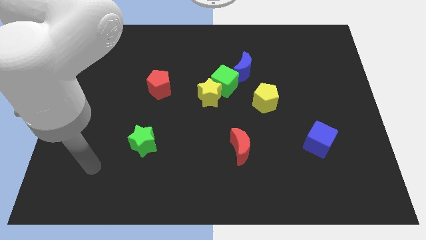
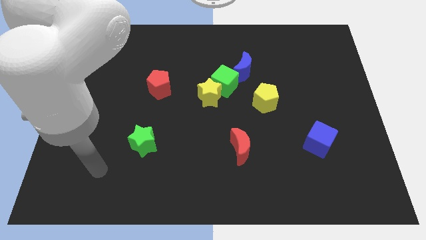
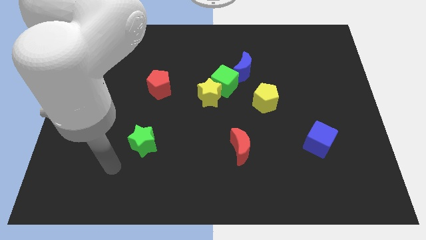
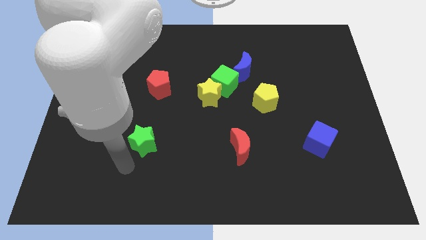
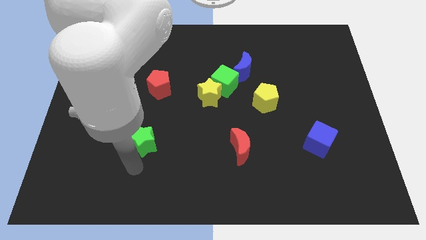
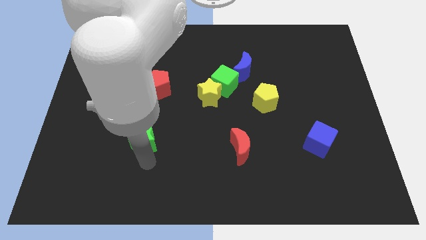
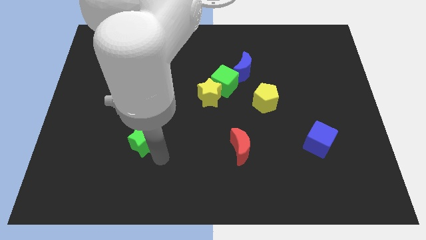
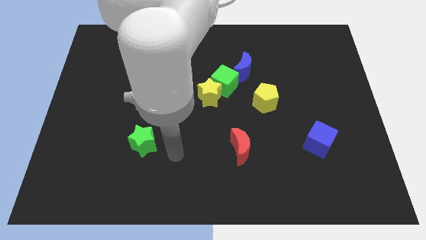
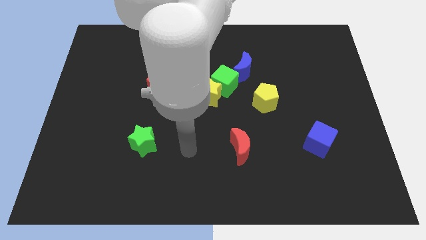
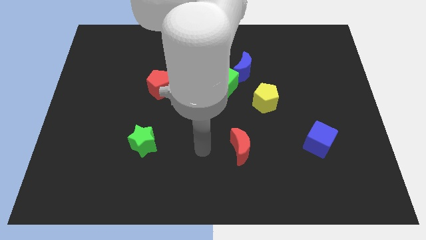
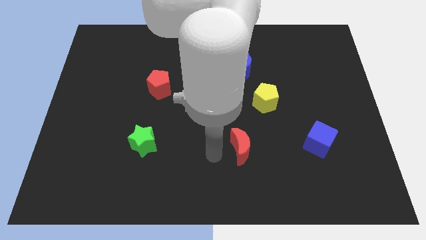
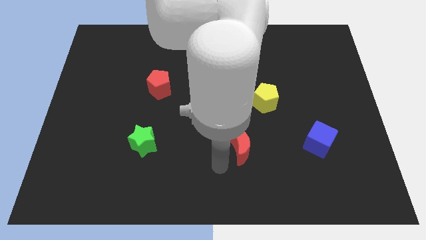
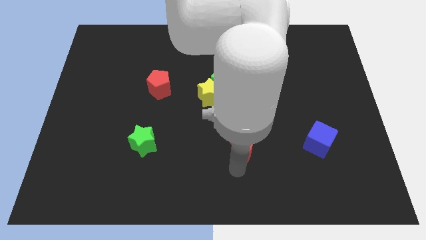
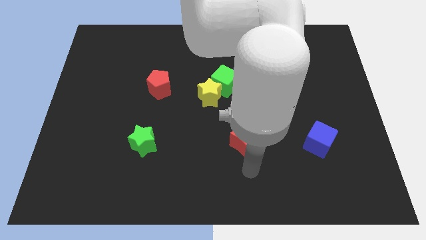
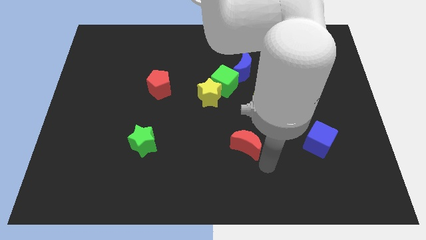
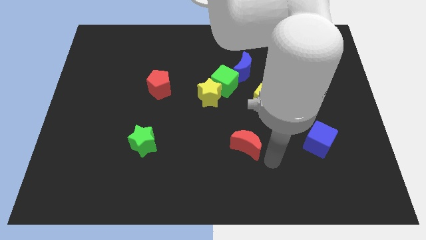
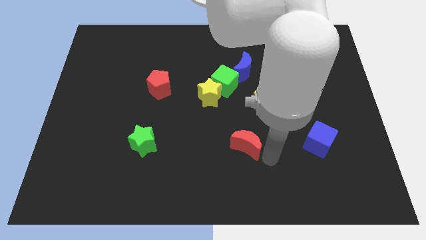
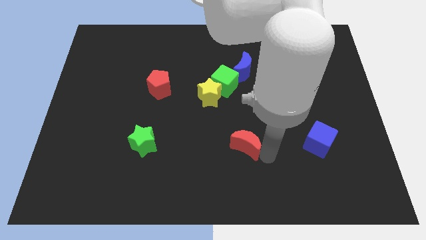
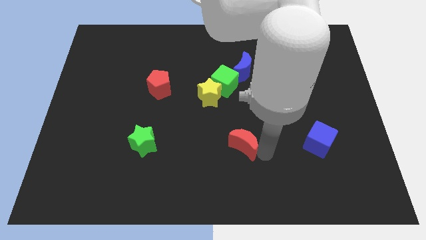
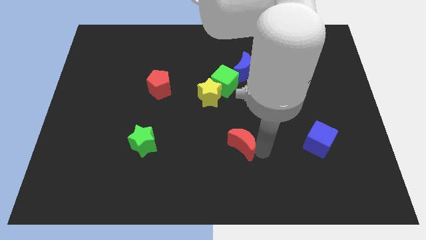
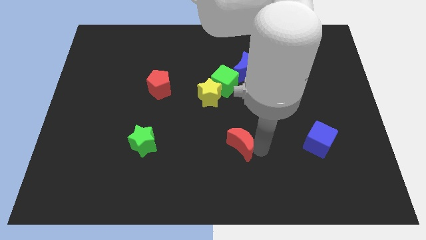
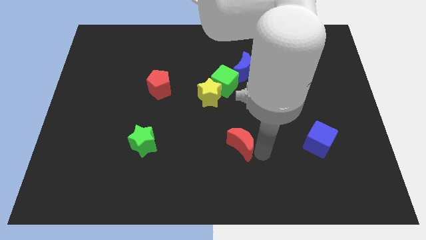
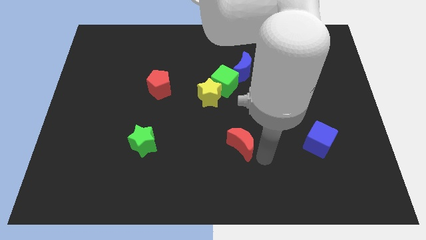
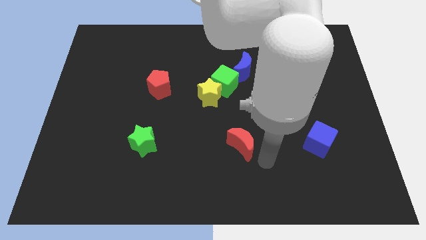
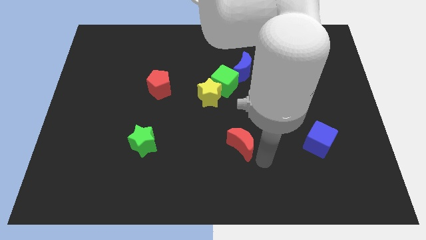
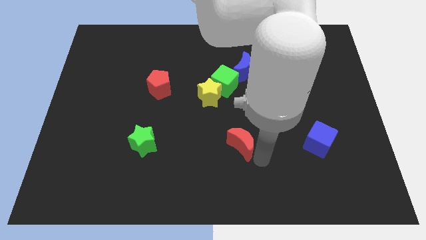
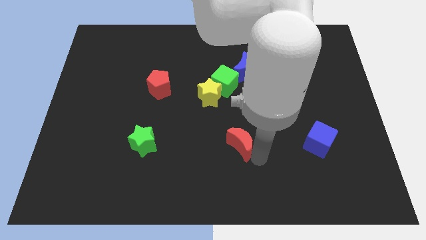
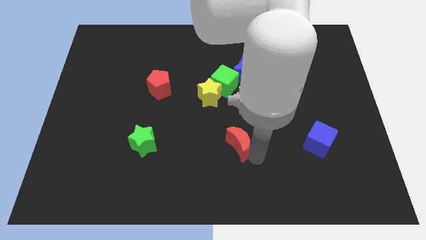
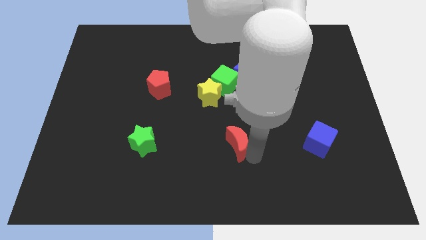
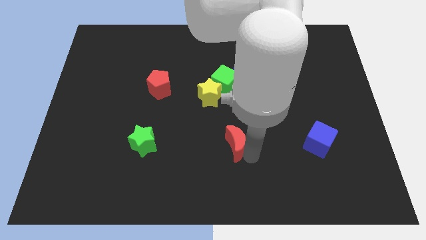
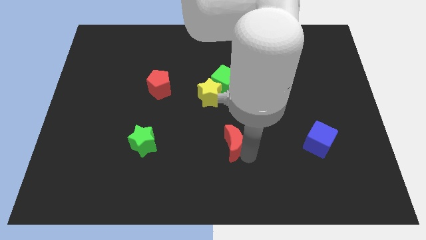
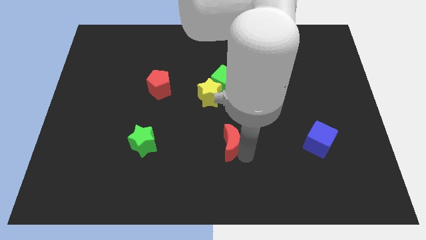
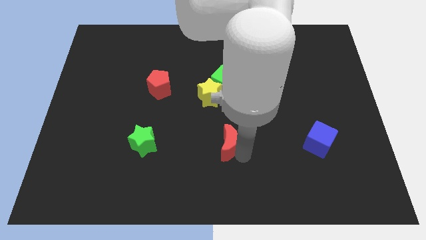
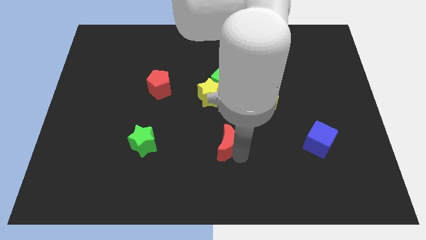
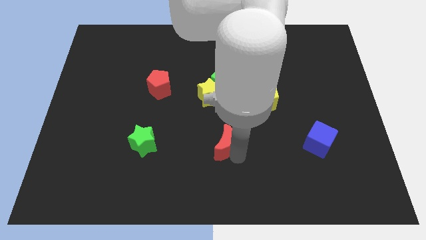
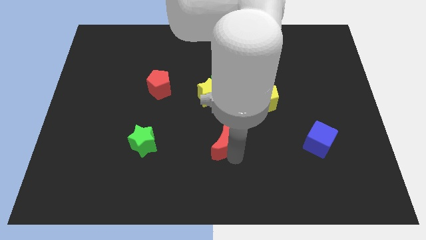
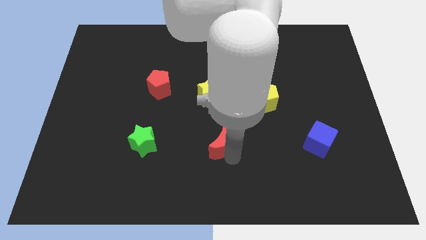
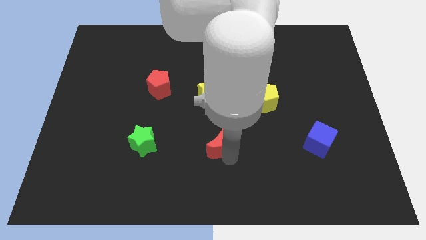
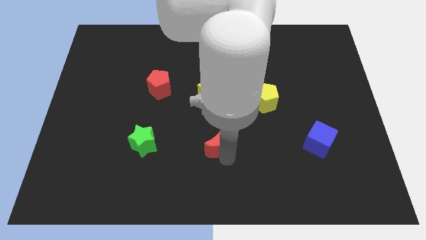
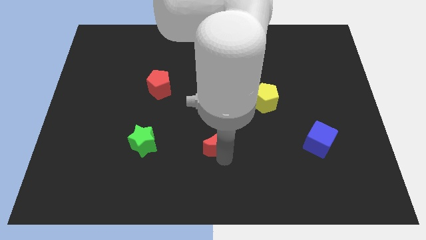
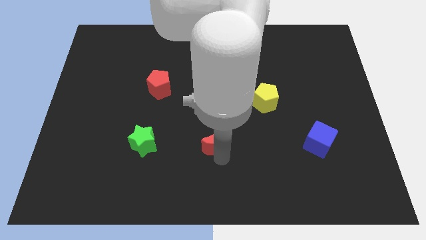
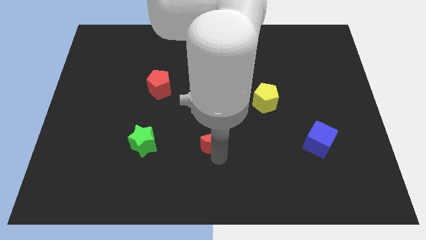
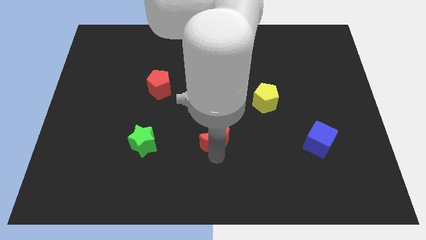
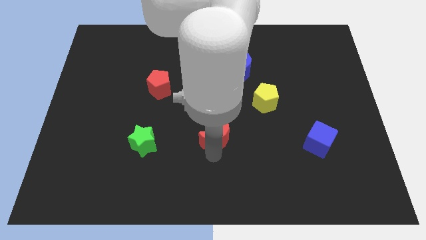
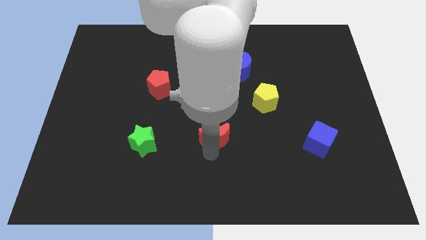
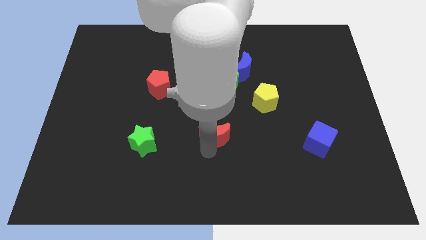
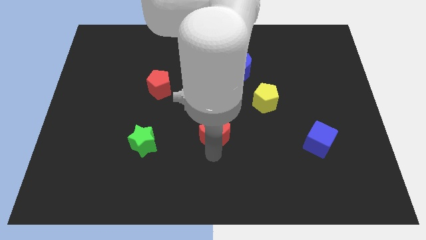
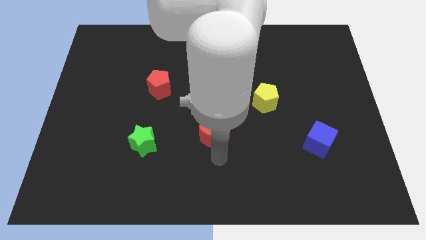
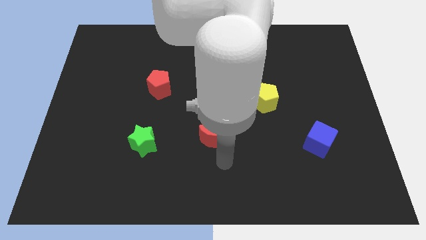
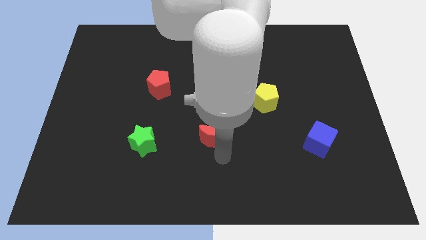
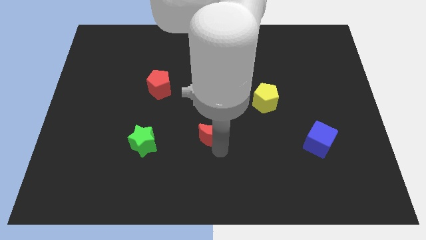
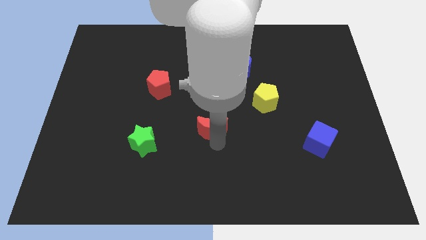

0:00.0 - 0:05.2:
push the red moon slightly upwards and left diagonally

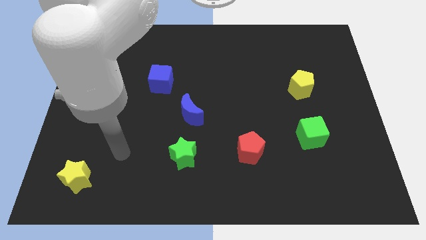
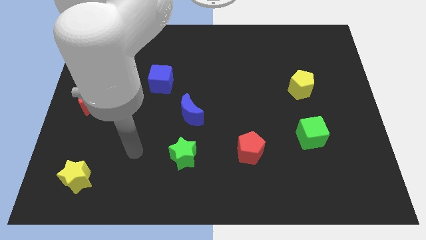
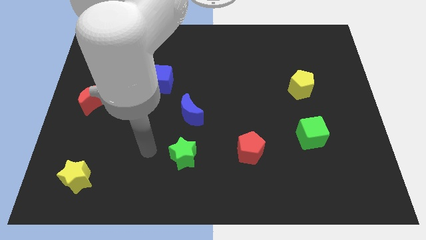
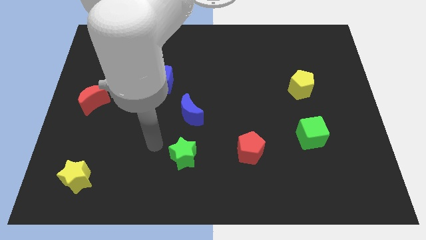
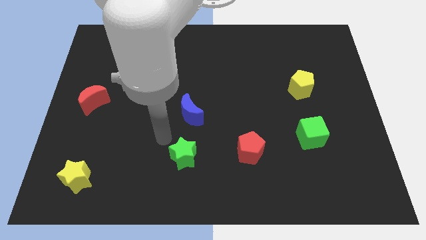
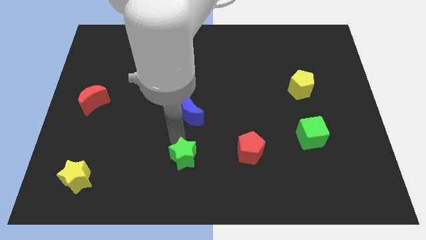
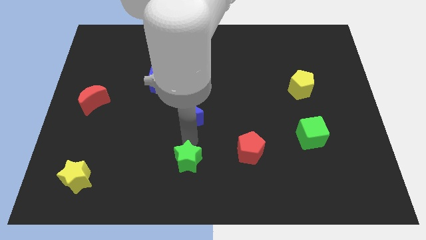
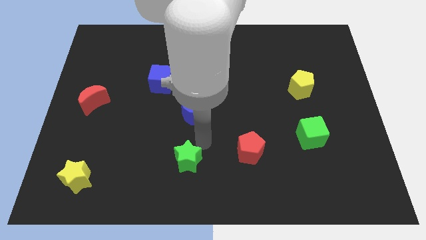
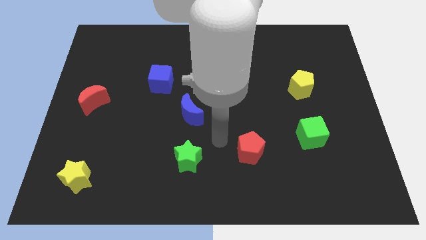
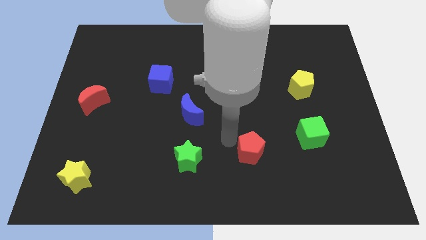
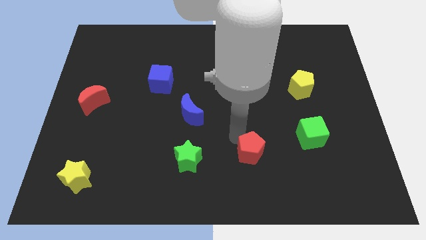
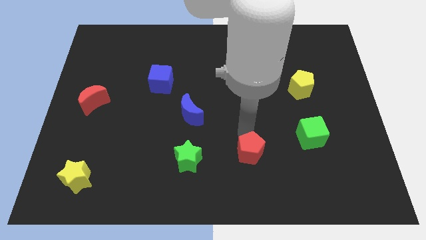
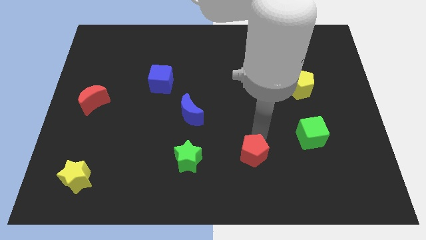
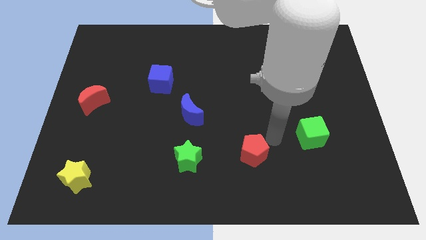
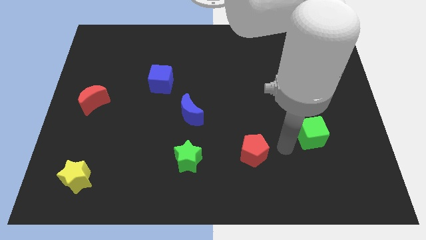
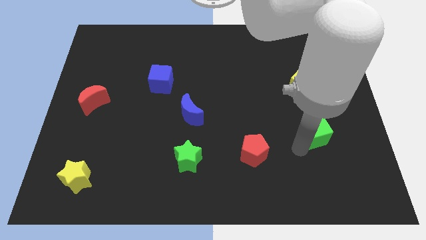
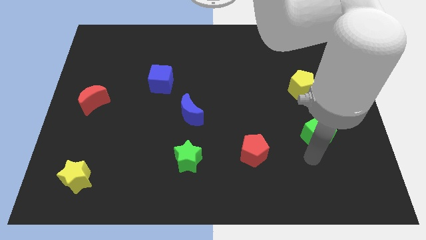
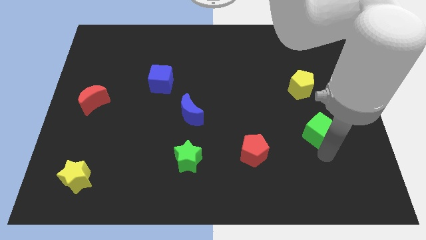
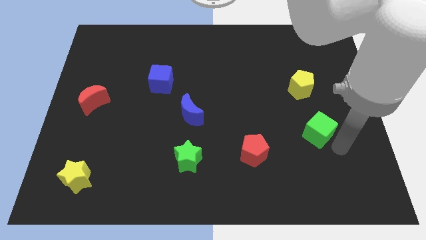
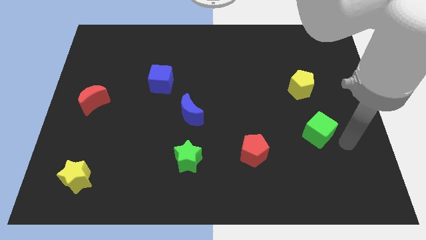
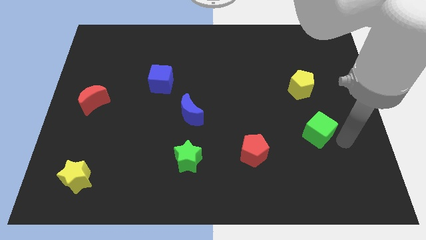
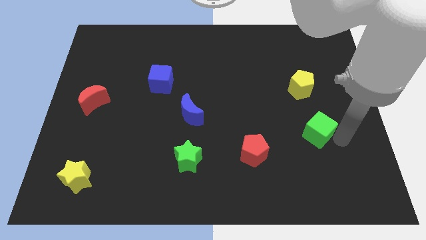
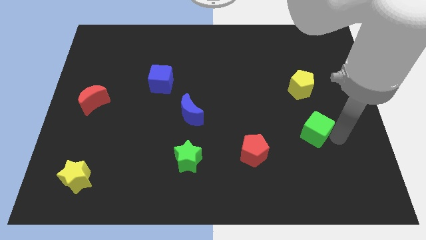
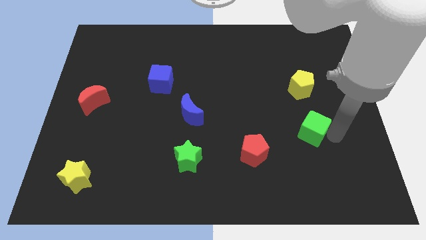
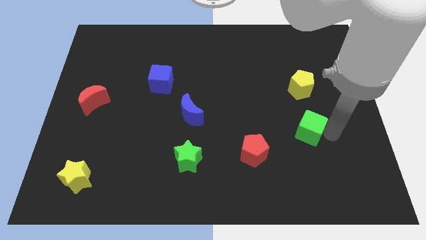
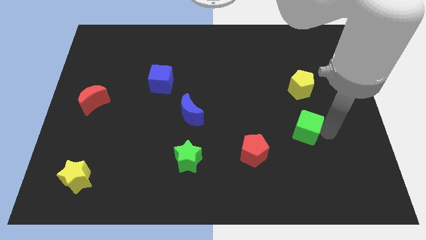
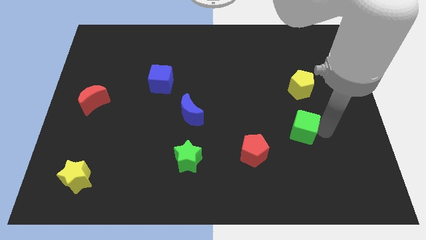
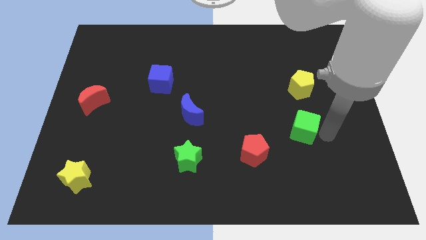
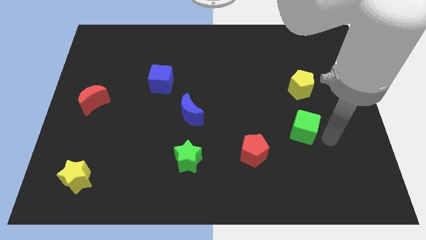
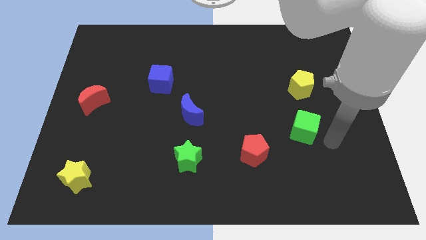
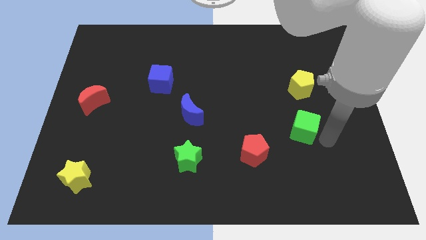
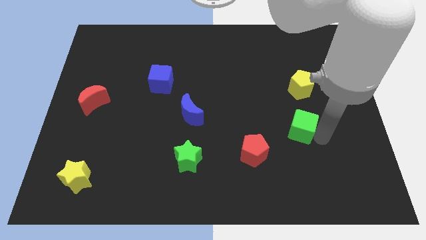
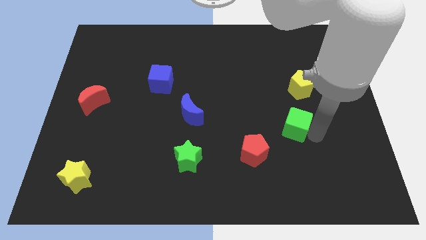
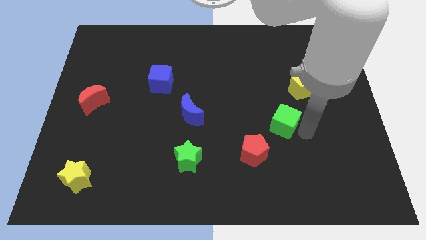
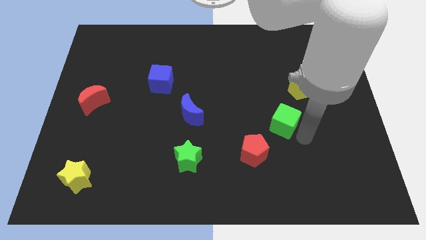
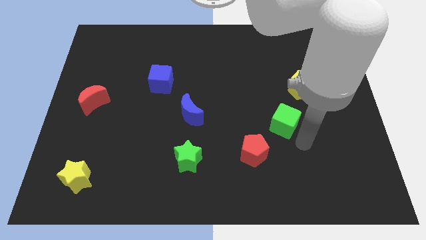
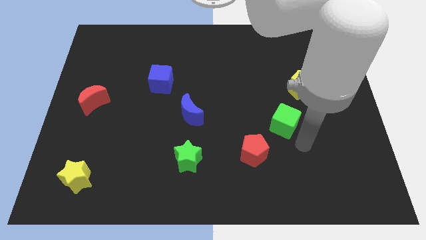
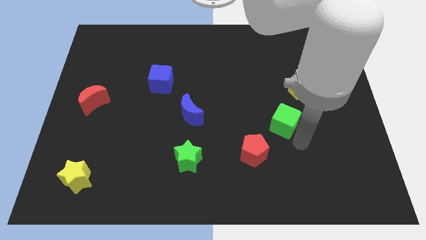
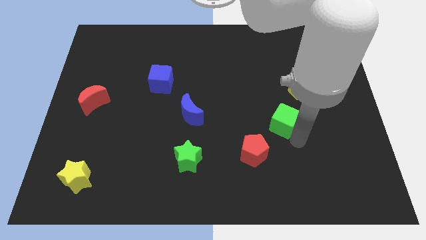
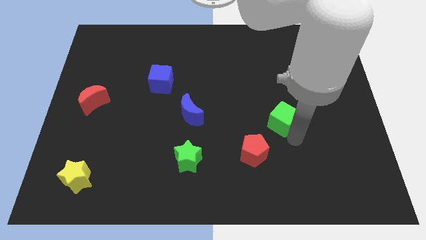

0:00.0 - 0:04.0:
slightly slide the green cube up and then to the left
